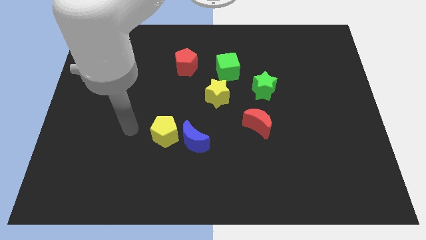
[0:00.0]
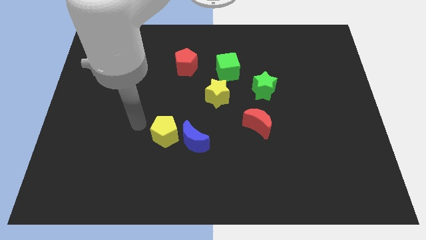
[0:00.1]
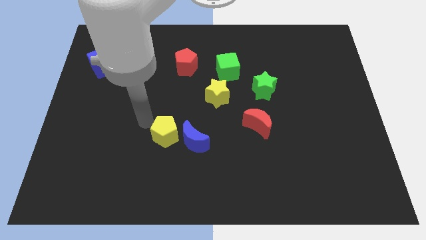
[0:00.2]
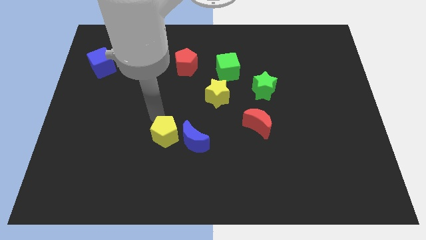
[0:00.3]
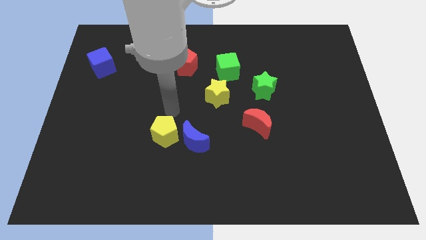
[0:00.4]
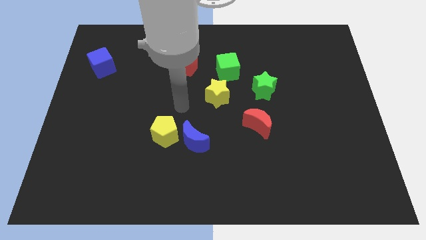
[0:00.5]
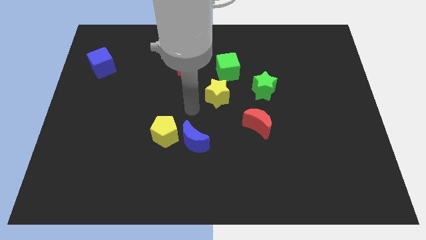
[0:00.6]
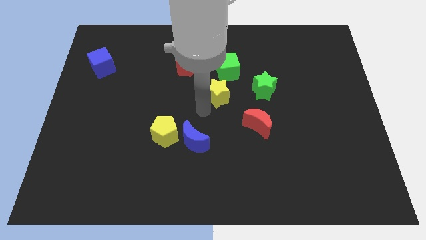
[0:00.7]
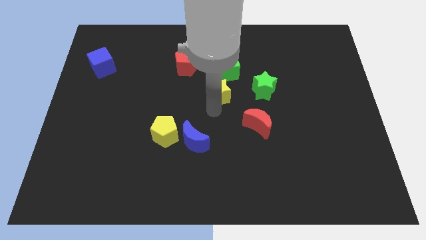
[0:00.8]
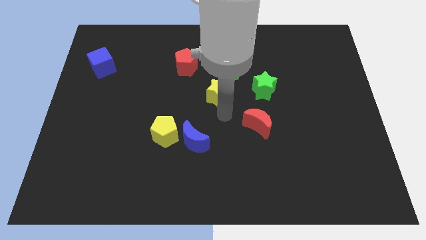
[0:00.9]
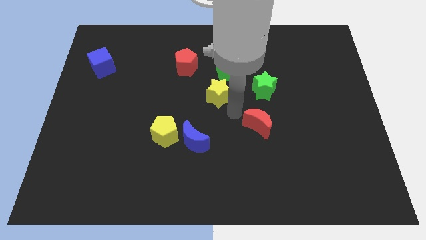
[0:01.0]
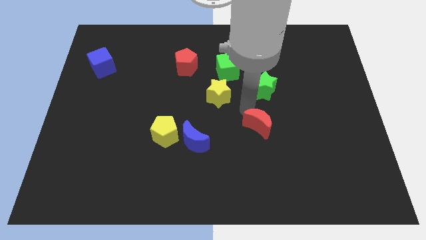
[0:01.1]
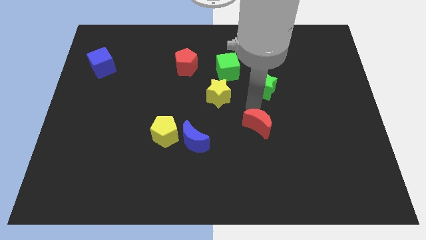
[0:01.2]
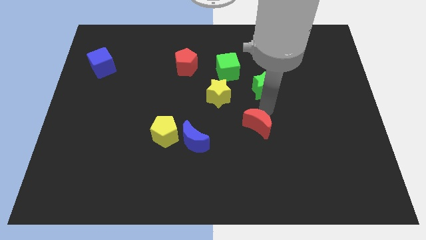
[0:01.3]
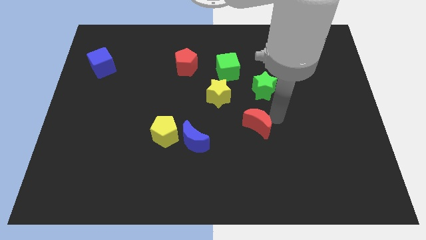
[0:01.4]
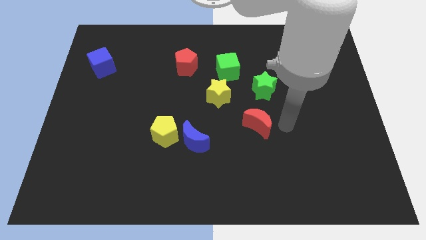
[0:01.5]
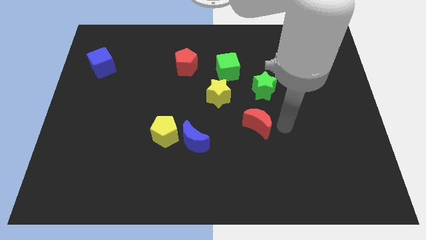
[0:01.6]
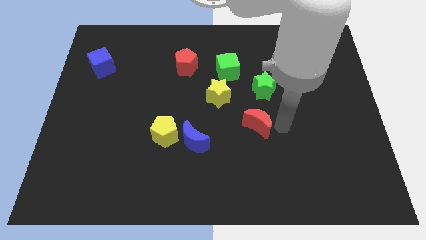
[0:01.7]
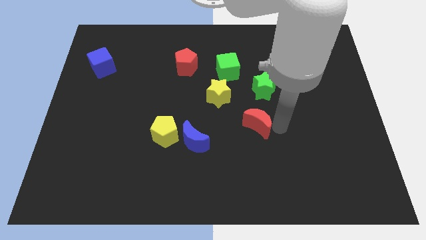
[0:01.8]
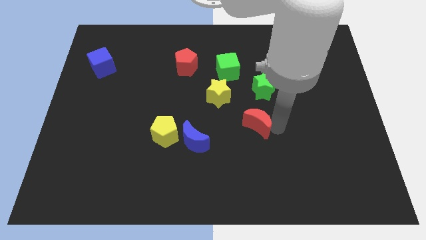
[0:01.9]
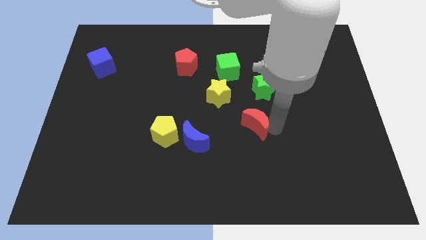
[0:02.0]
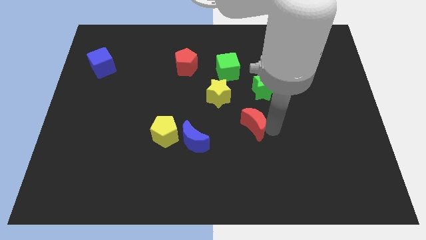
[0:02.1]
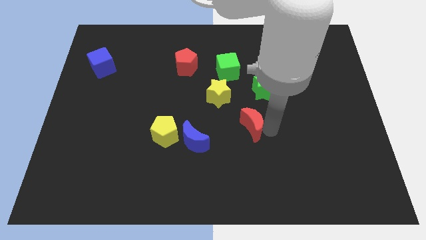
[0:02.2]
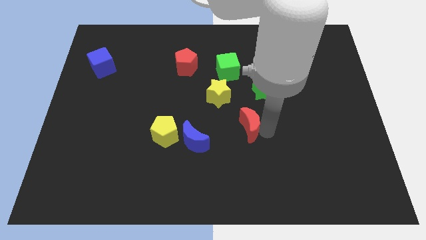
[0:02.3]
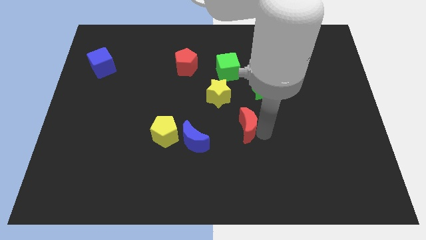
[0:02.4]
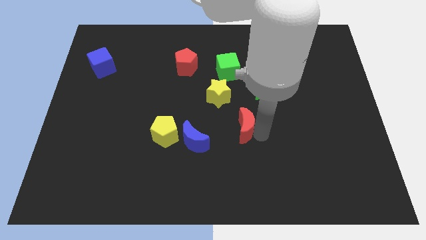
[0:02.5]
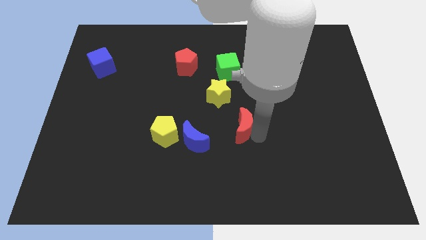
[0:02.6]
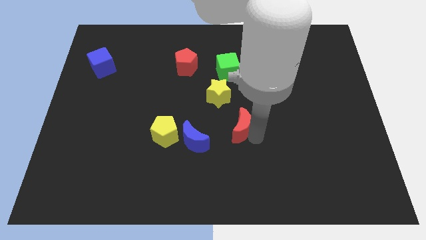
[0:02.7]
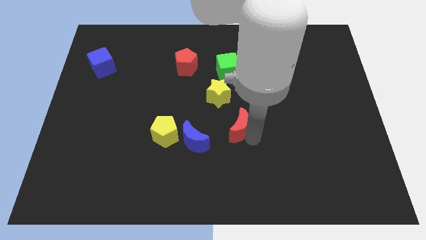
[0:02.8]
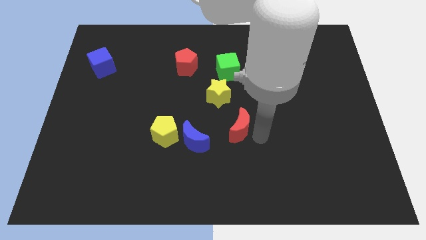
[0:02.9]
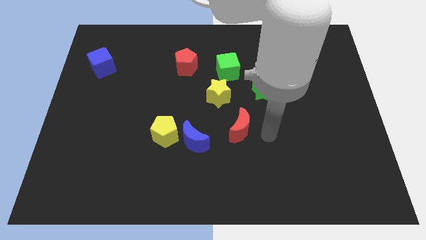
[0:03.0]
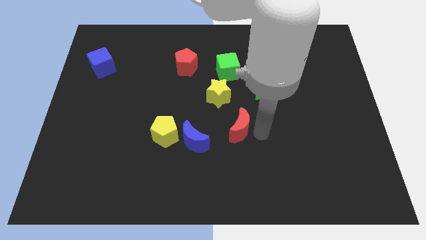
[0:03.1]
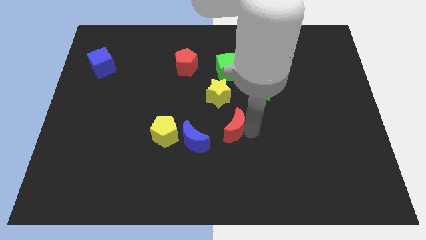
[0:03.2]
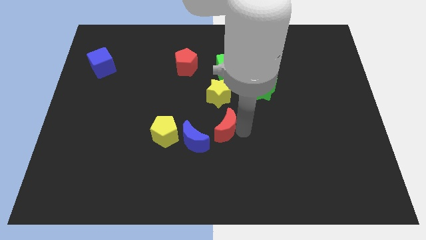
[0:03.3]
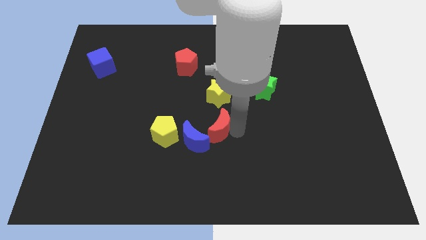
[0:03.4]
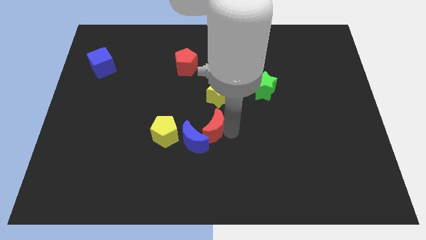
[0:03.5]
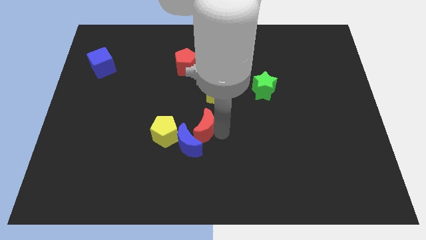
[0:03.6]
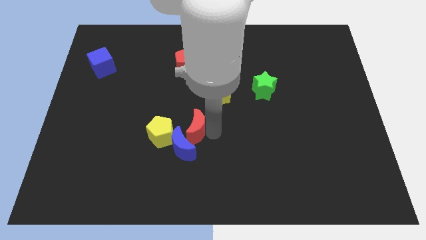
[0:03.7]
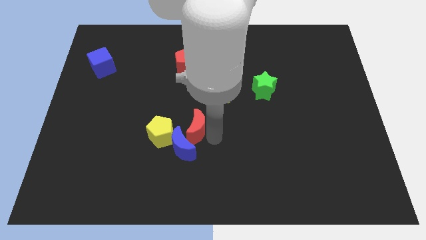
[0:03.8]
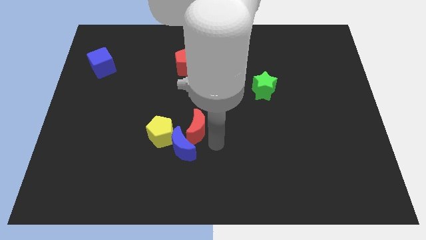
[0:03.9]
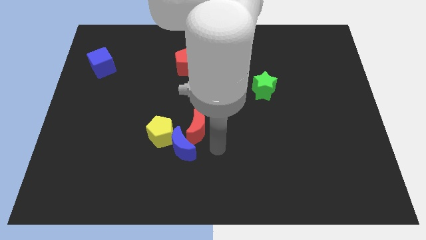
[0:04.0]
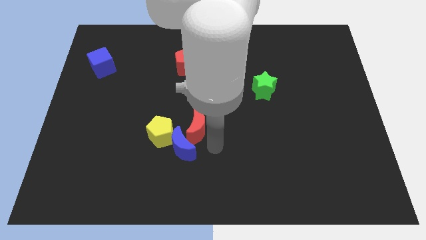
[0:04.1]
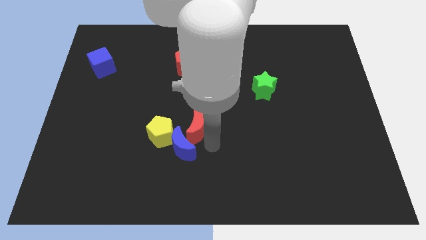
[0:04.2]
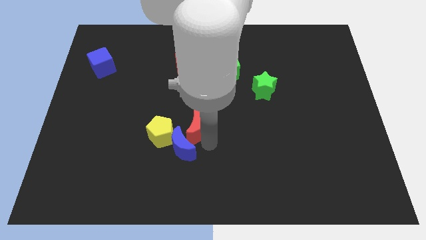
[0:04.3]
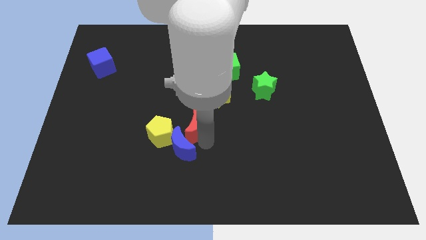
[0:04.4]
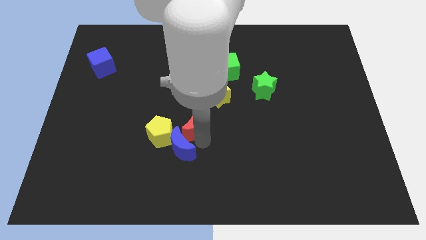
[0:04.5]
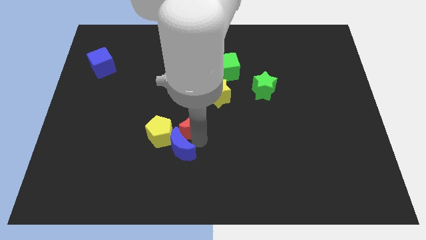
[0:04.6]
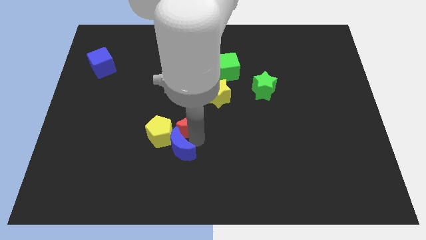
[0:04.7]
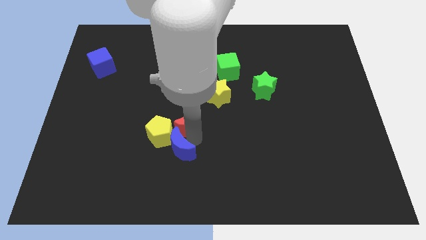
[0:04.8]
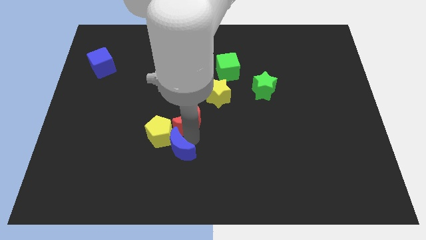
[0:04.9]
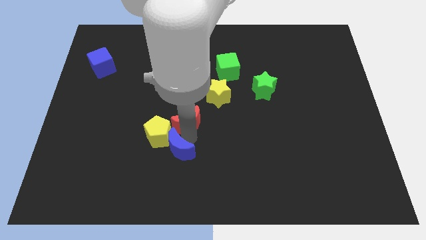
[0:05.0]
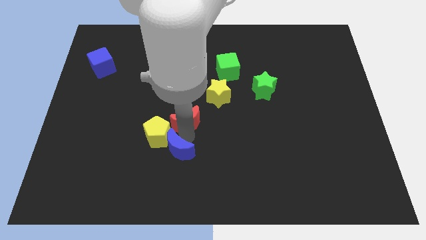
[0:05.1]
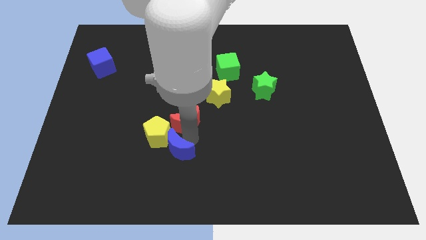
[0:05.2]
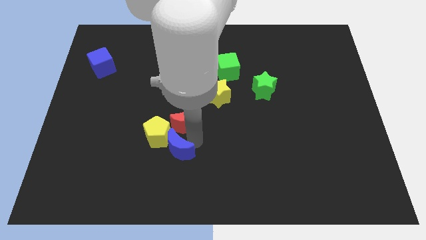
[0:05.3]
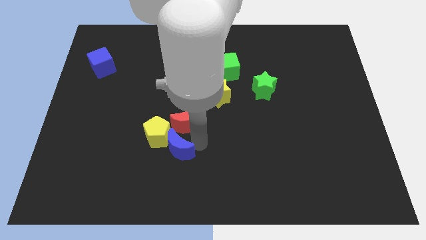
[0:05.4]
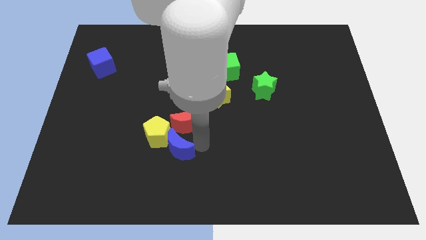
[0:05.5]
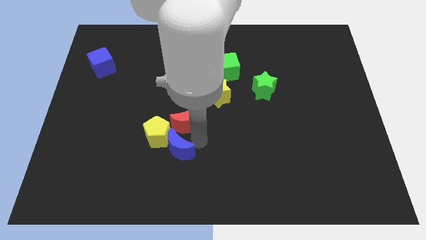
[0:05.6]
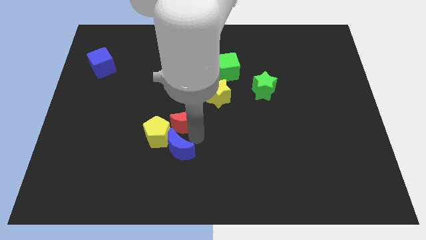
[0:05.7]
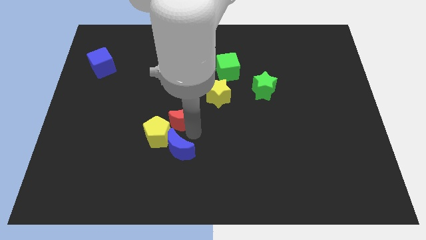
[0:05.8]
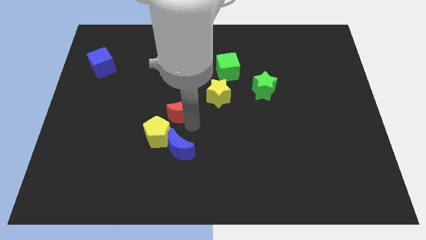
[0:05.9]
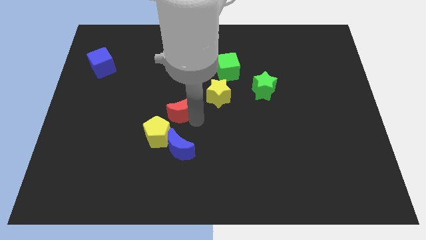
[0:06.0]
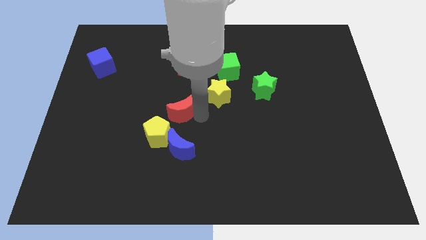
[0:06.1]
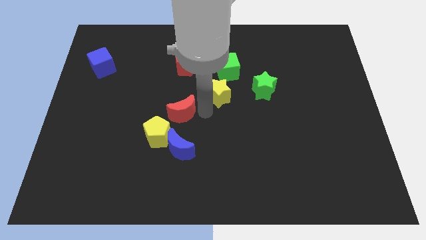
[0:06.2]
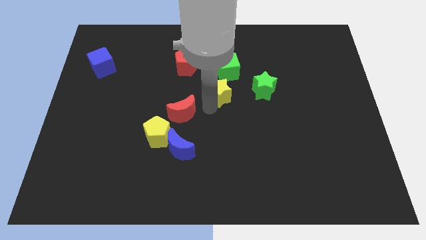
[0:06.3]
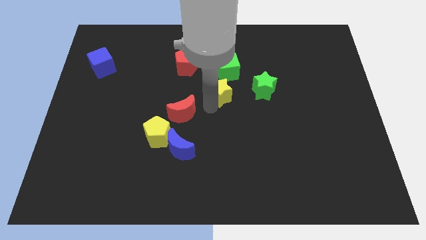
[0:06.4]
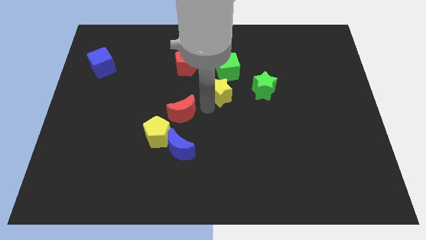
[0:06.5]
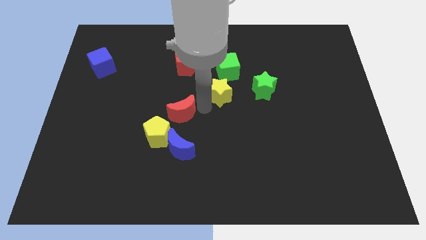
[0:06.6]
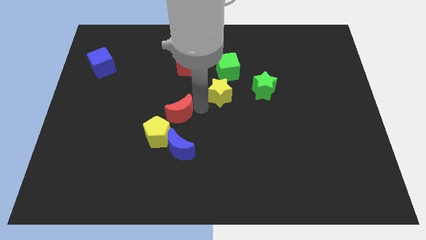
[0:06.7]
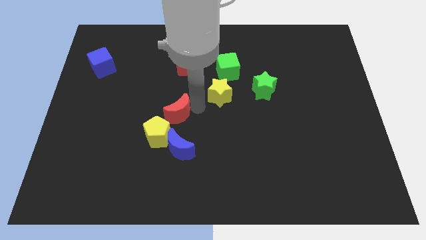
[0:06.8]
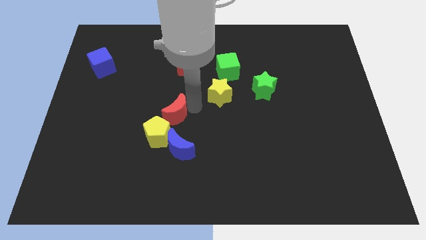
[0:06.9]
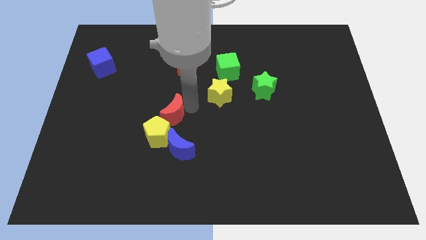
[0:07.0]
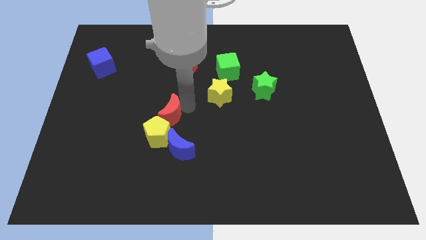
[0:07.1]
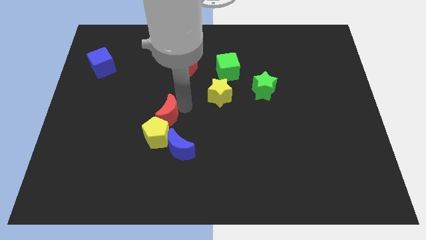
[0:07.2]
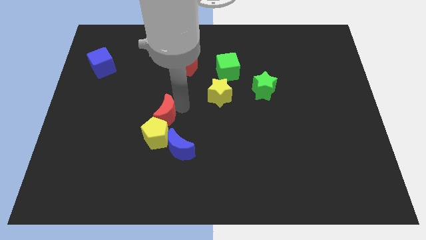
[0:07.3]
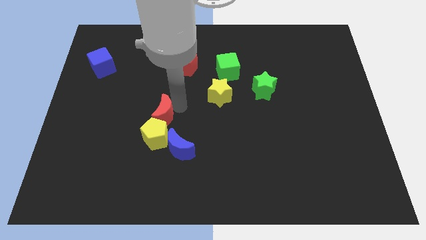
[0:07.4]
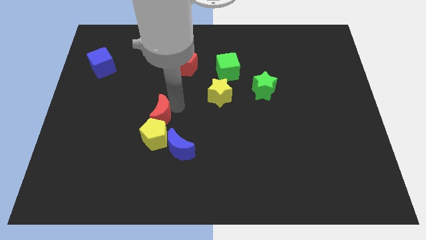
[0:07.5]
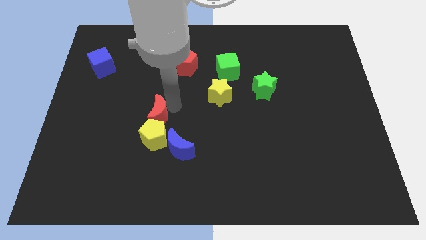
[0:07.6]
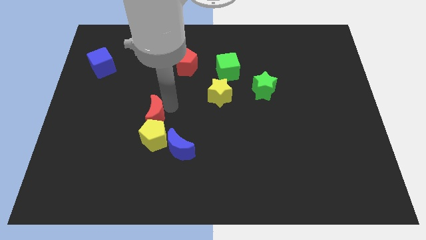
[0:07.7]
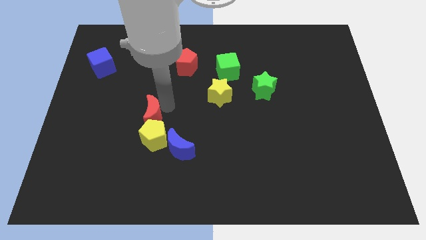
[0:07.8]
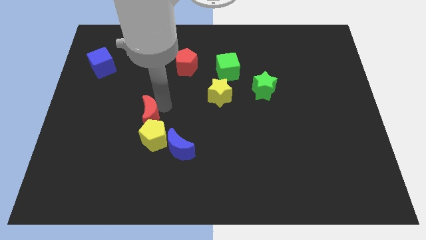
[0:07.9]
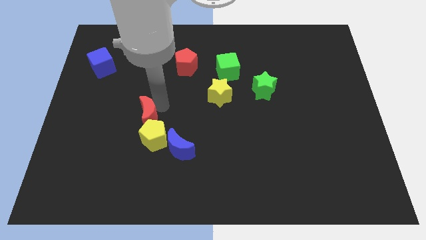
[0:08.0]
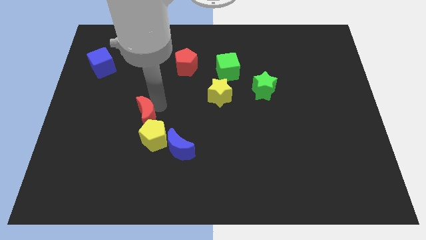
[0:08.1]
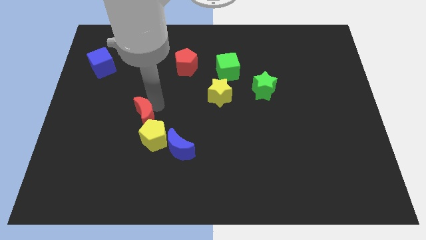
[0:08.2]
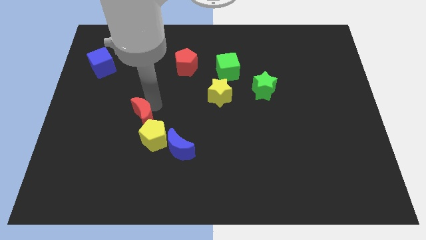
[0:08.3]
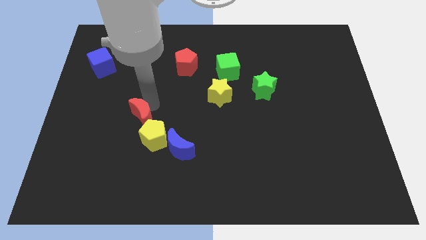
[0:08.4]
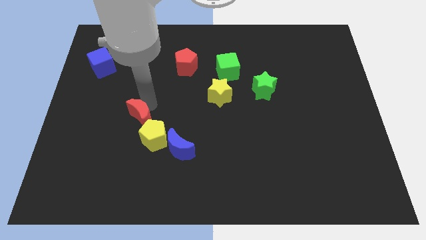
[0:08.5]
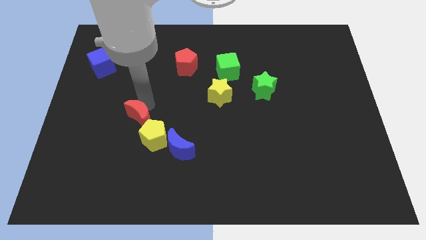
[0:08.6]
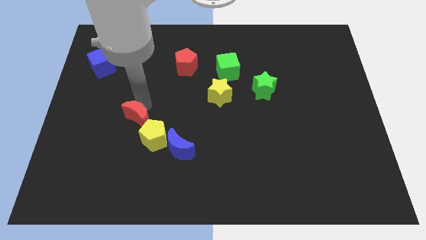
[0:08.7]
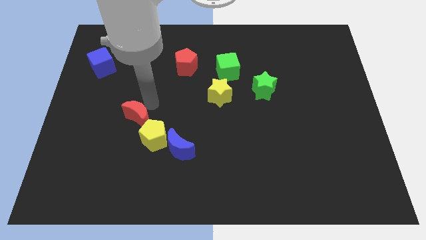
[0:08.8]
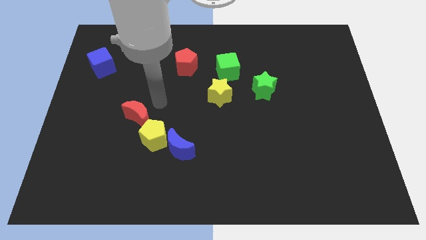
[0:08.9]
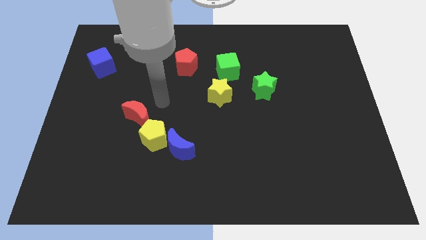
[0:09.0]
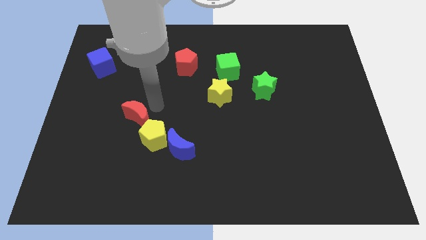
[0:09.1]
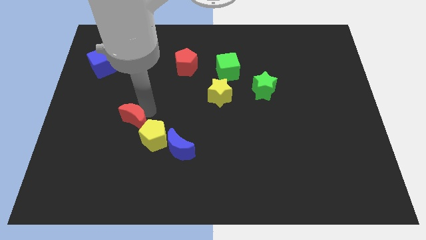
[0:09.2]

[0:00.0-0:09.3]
put the red moon to the left of the yellow pentagon
